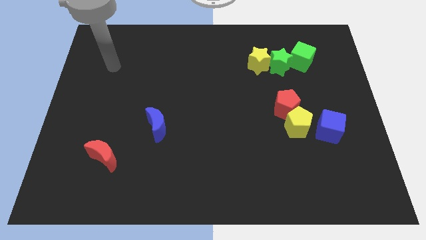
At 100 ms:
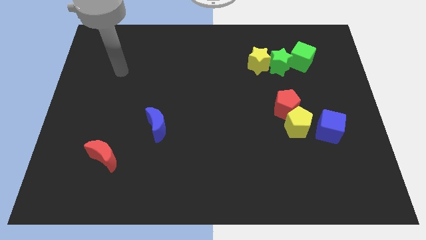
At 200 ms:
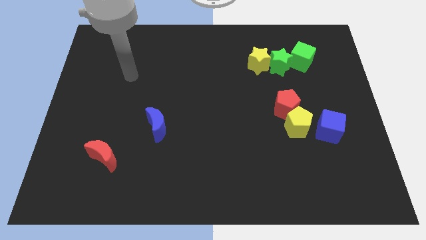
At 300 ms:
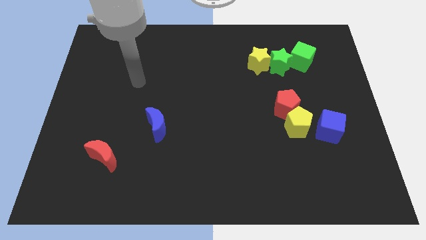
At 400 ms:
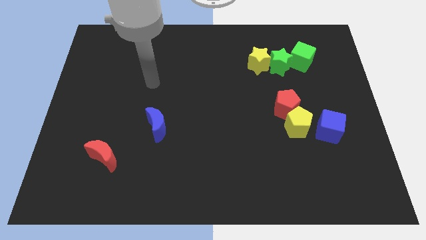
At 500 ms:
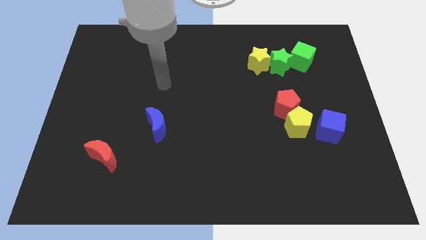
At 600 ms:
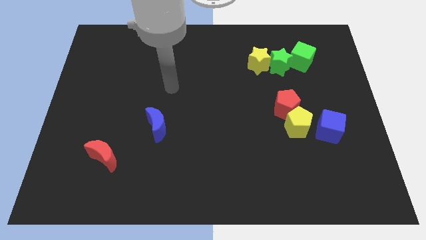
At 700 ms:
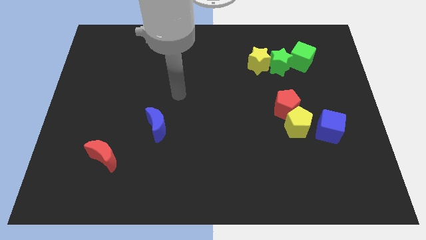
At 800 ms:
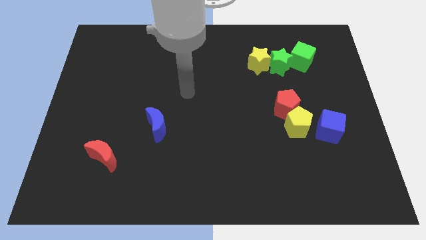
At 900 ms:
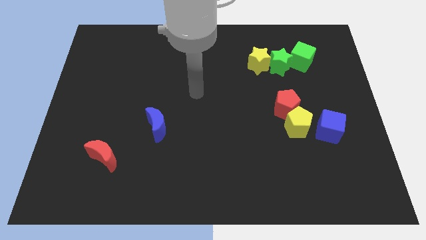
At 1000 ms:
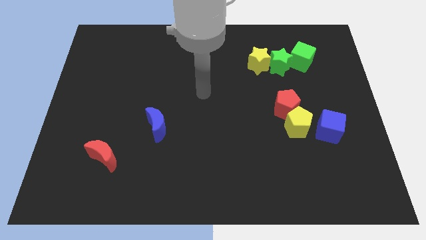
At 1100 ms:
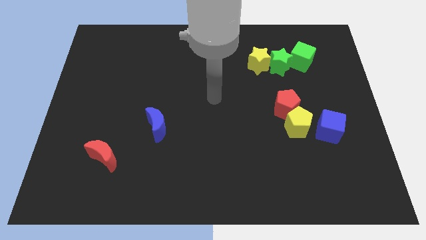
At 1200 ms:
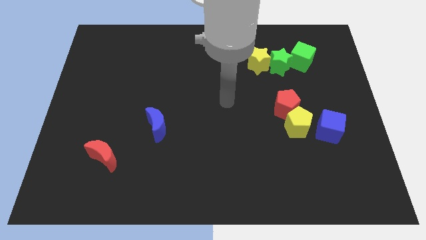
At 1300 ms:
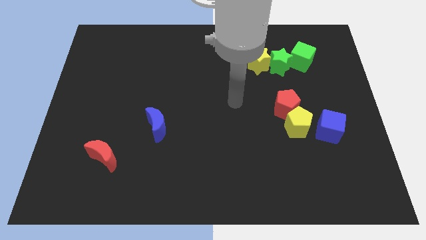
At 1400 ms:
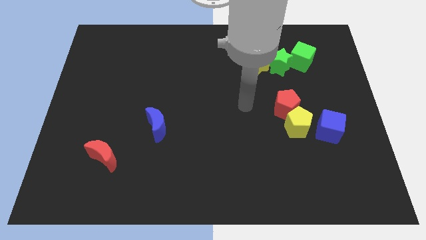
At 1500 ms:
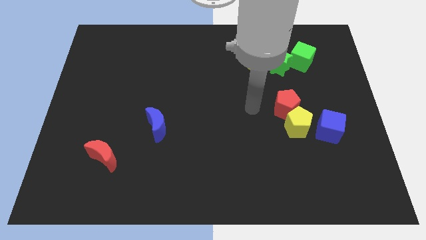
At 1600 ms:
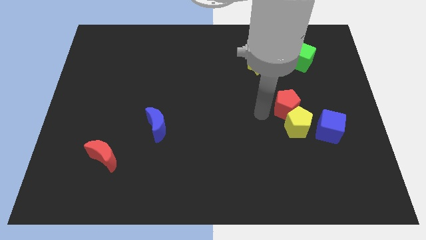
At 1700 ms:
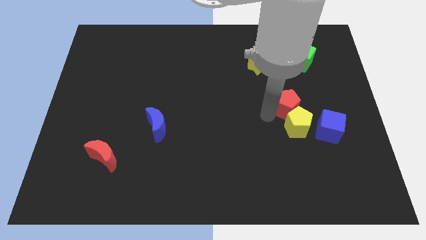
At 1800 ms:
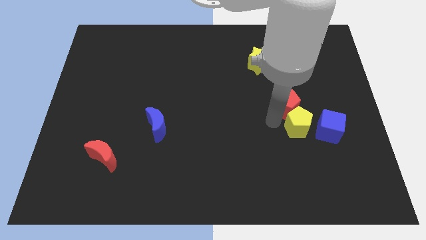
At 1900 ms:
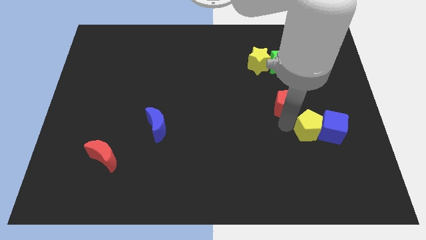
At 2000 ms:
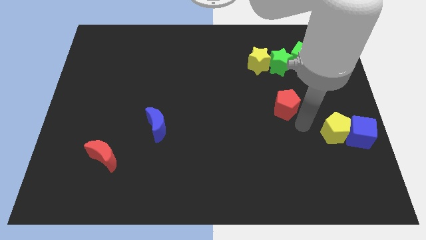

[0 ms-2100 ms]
pull the red pentagon apart from the yellow pentagon

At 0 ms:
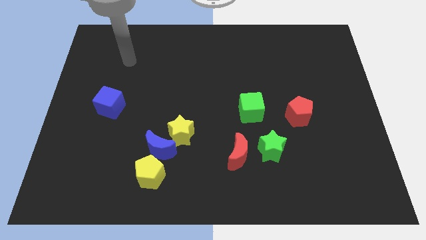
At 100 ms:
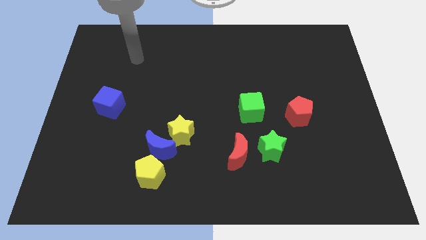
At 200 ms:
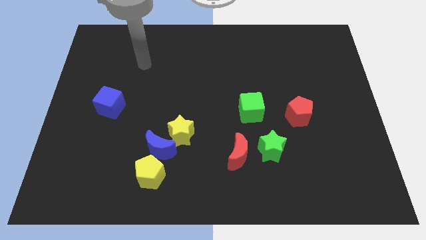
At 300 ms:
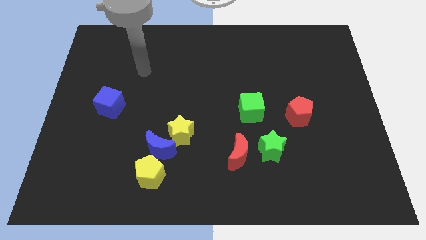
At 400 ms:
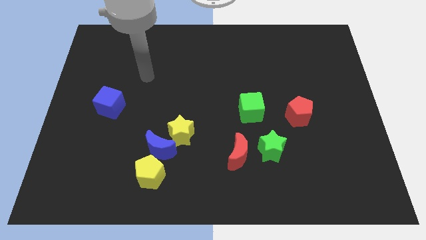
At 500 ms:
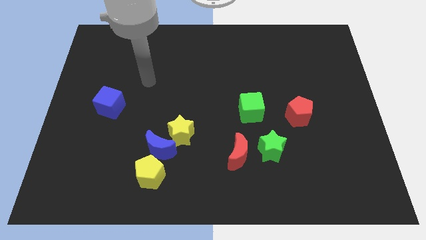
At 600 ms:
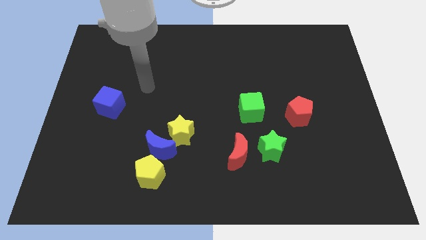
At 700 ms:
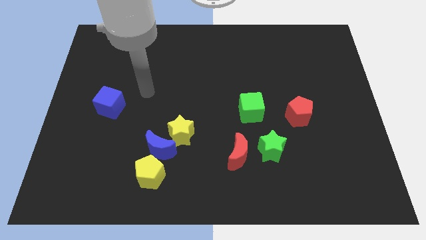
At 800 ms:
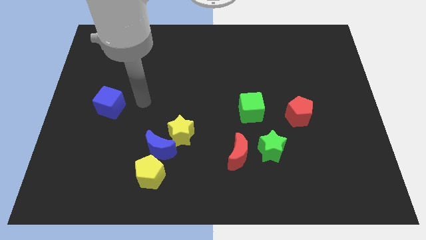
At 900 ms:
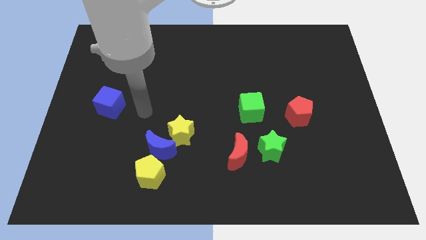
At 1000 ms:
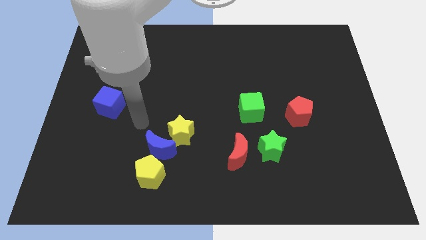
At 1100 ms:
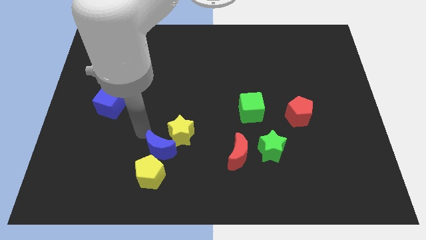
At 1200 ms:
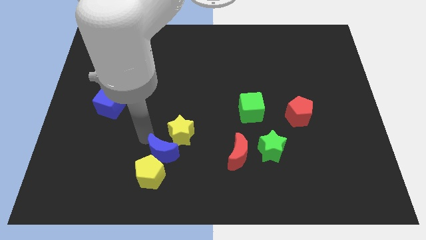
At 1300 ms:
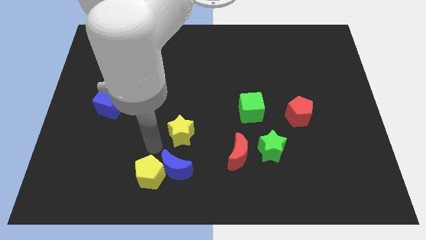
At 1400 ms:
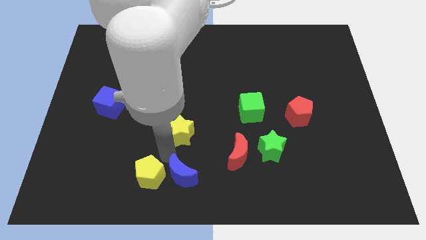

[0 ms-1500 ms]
pull the yellow star apart from the blue moon

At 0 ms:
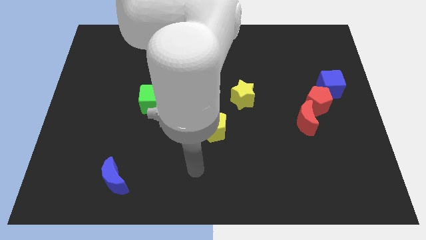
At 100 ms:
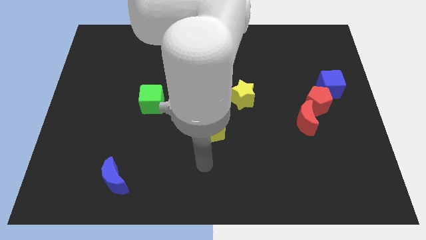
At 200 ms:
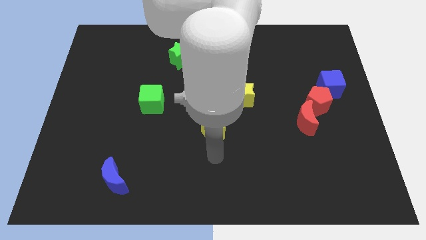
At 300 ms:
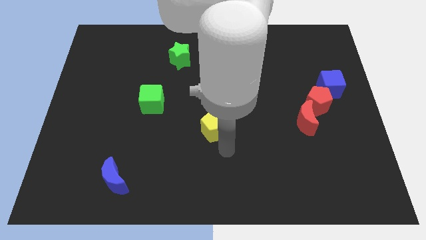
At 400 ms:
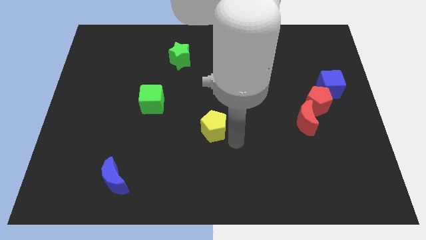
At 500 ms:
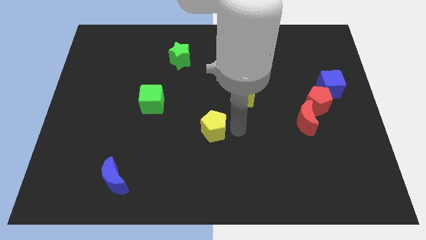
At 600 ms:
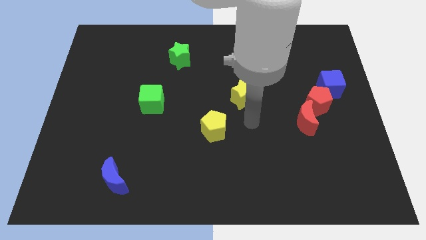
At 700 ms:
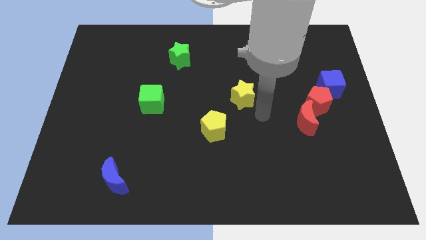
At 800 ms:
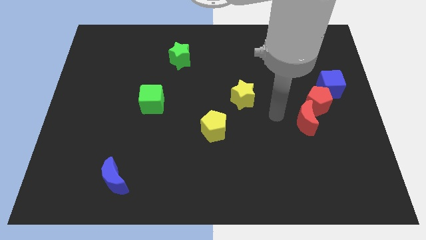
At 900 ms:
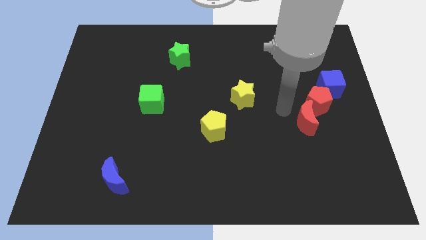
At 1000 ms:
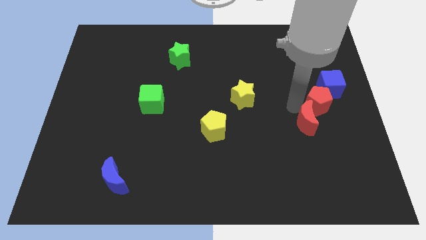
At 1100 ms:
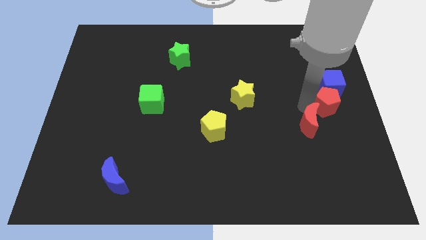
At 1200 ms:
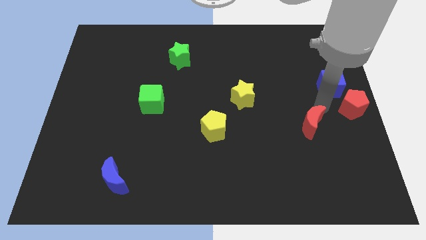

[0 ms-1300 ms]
pull the red moon apart from the red pentagon

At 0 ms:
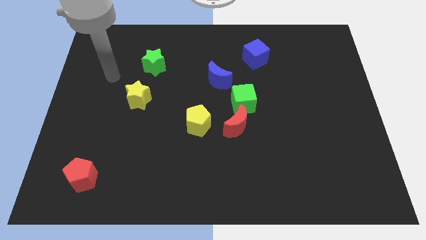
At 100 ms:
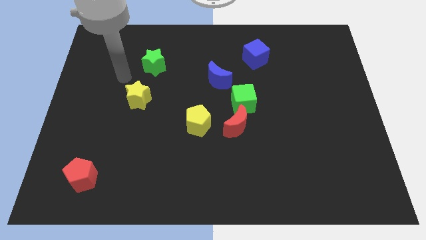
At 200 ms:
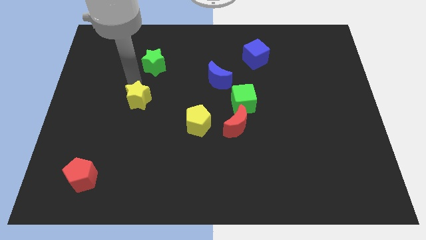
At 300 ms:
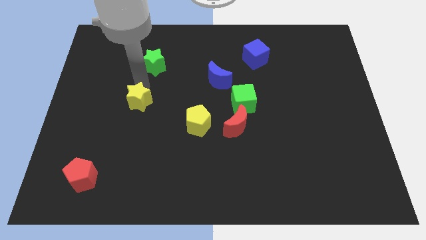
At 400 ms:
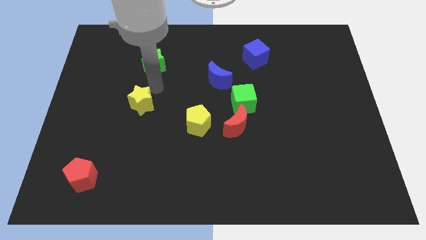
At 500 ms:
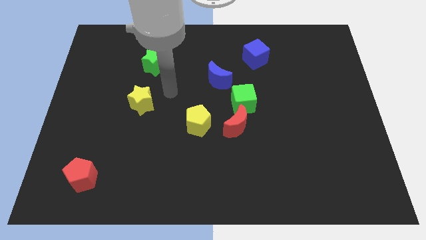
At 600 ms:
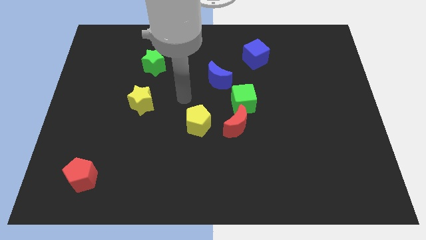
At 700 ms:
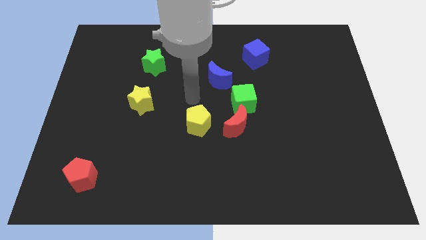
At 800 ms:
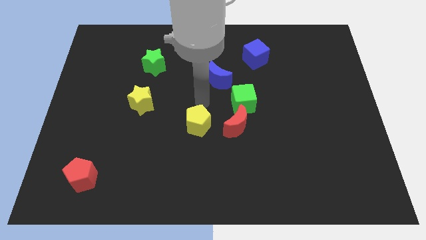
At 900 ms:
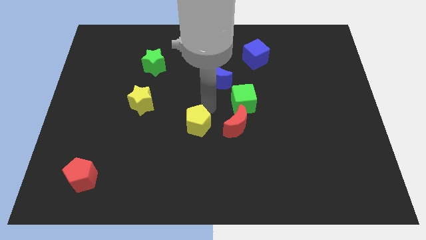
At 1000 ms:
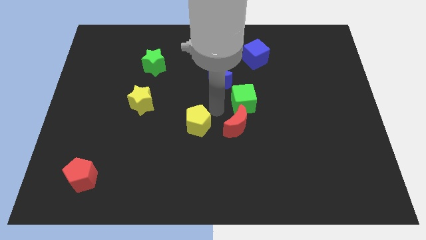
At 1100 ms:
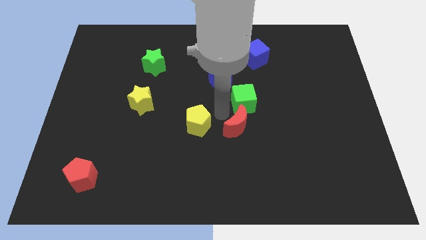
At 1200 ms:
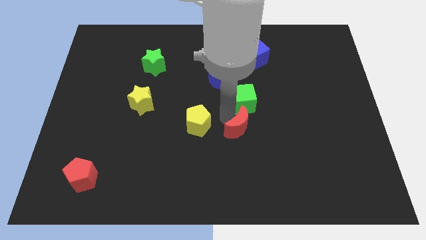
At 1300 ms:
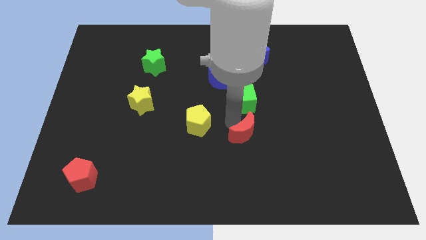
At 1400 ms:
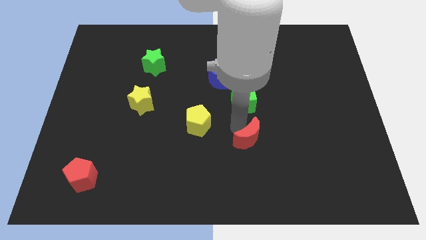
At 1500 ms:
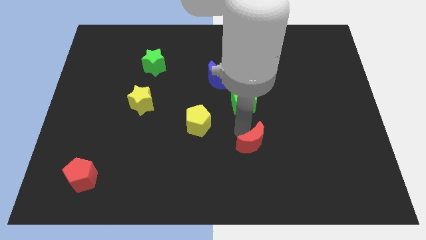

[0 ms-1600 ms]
pull the red moon apart from the green cube and yellow pentagon

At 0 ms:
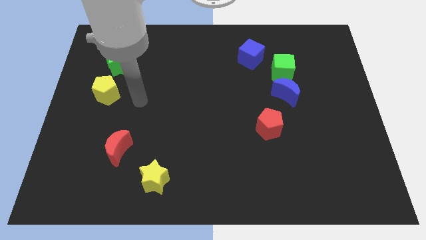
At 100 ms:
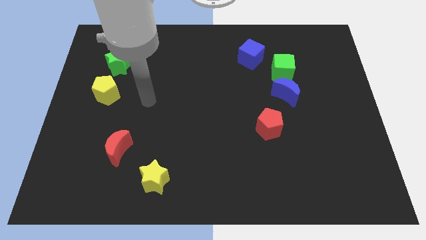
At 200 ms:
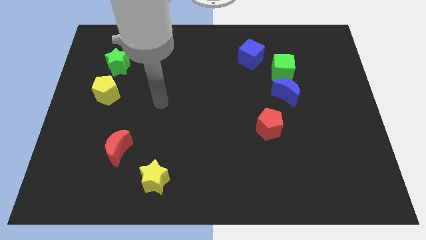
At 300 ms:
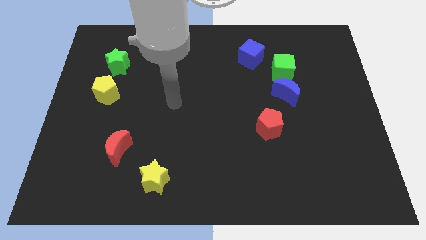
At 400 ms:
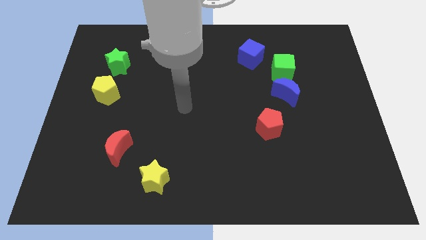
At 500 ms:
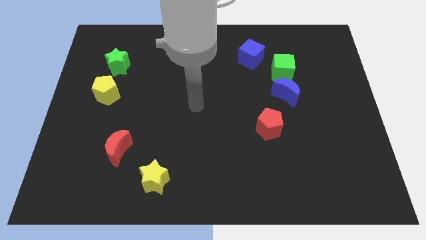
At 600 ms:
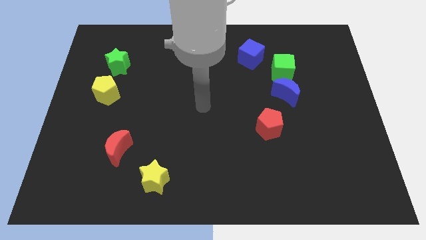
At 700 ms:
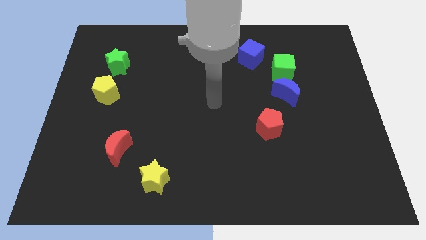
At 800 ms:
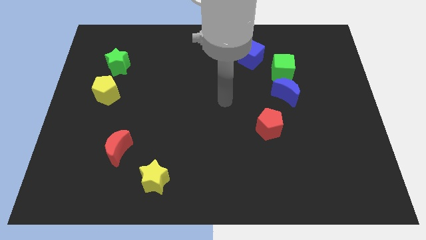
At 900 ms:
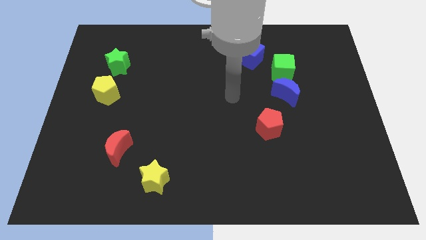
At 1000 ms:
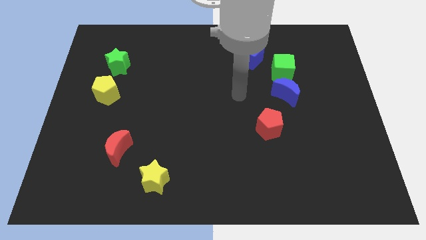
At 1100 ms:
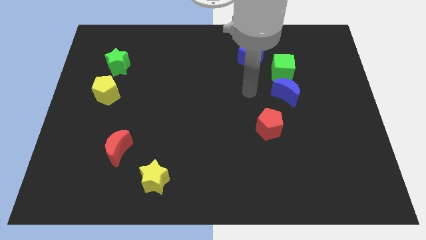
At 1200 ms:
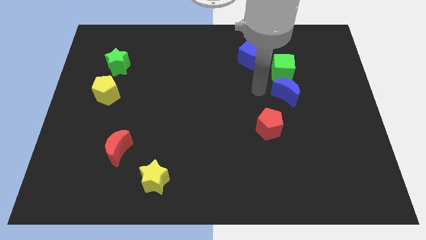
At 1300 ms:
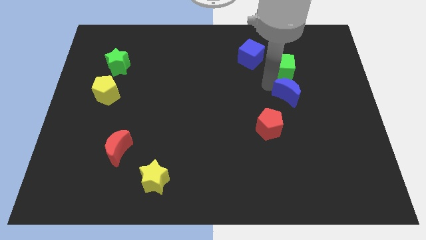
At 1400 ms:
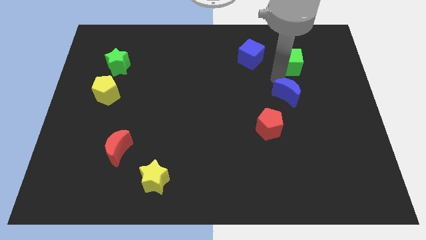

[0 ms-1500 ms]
move the blue moon away from the green cube

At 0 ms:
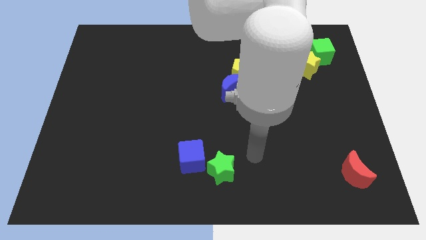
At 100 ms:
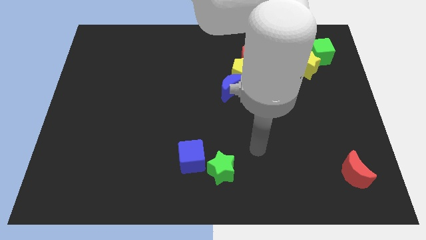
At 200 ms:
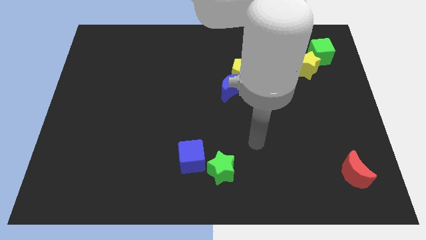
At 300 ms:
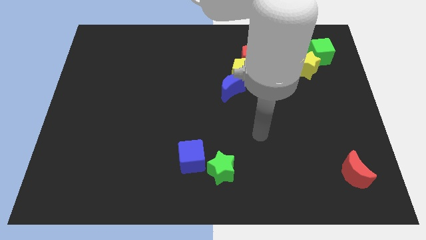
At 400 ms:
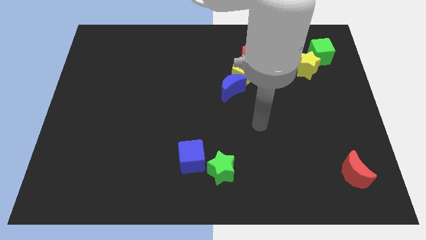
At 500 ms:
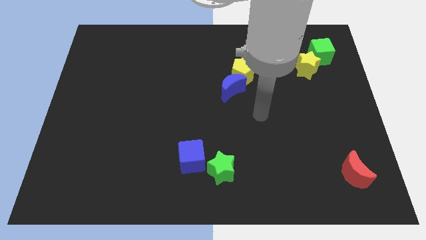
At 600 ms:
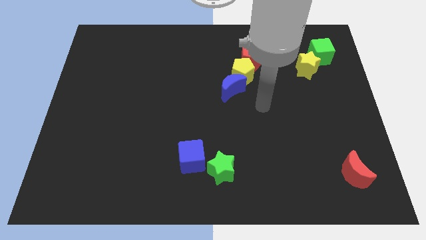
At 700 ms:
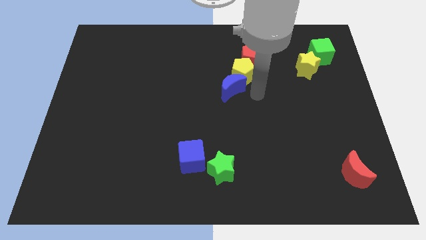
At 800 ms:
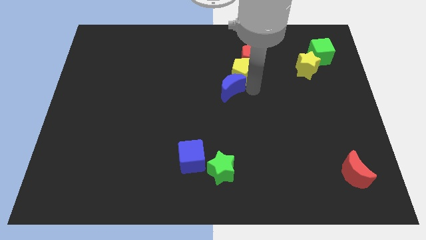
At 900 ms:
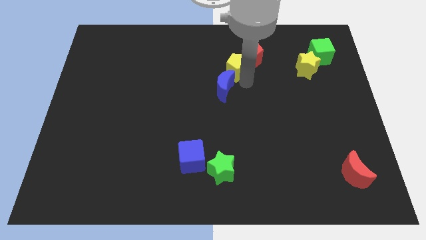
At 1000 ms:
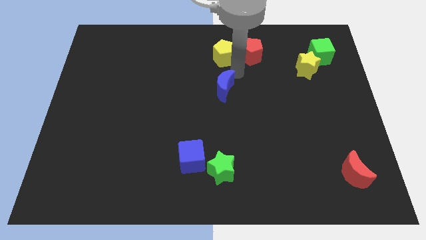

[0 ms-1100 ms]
pull the blue moon apart from the yellow pentagon

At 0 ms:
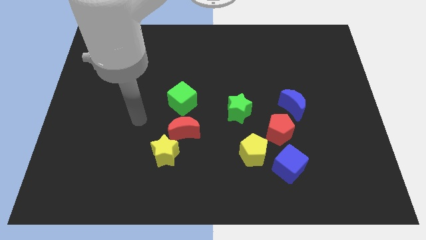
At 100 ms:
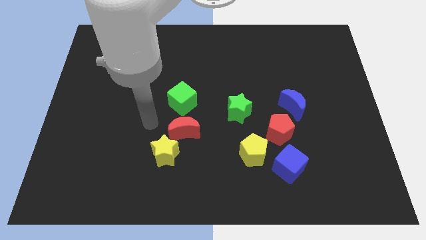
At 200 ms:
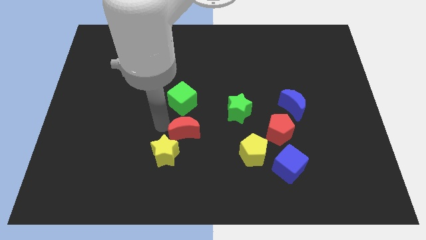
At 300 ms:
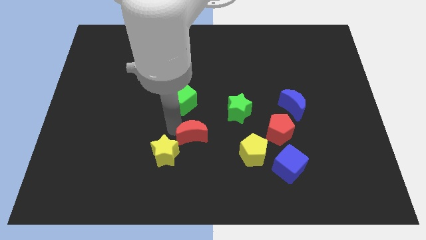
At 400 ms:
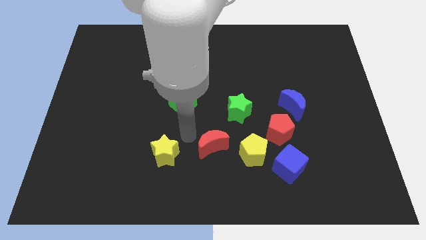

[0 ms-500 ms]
move the yellow star away from the red moon
